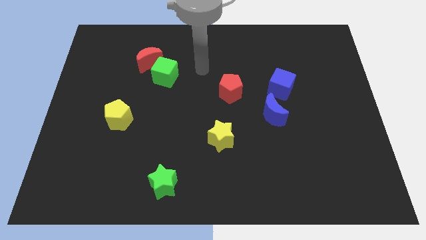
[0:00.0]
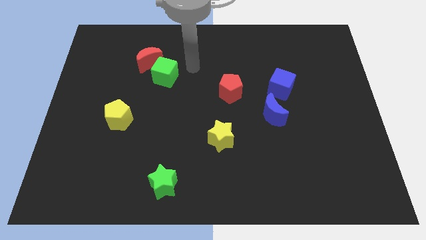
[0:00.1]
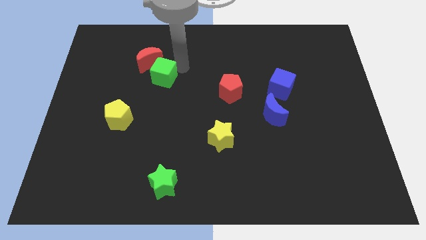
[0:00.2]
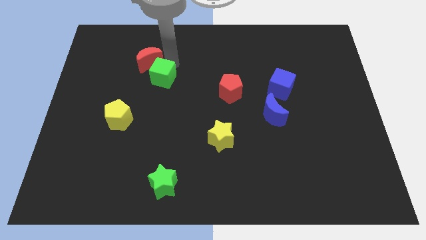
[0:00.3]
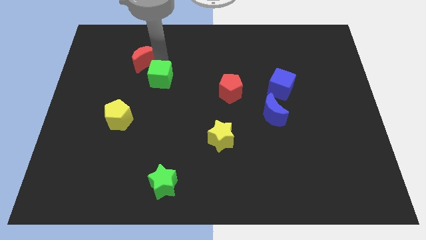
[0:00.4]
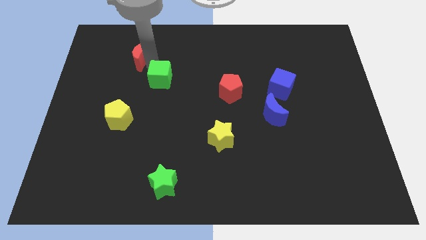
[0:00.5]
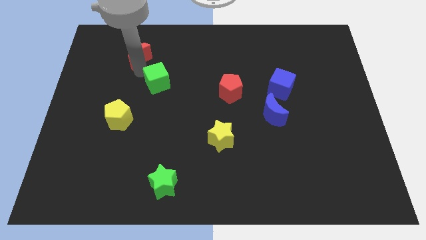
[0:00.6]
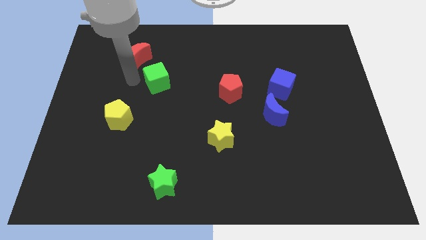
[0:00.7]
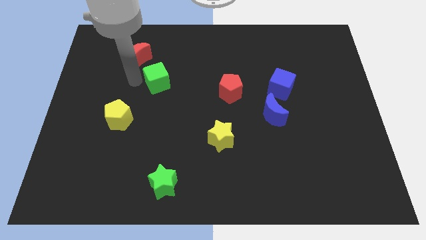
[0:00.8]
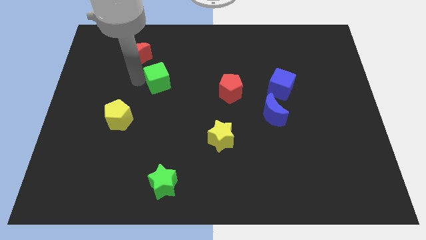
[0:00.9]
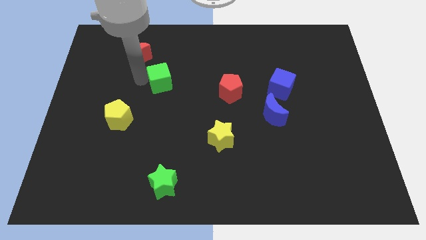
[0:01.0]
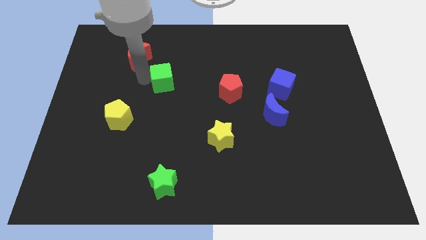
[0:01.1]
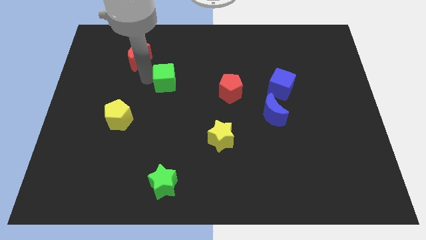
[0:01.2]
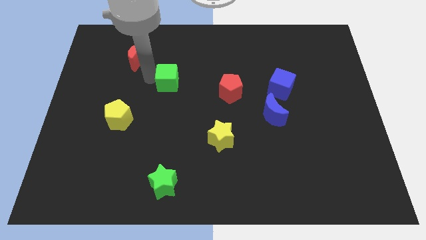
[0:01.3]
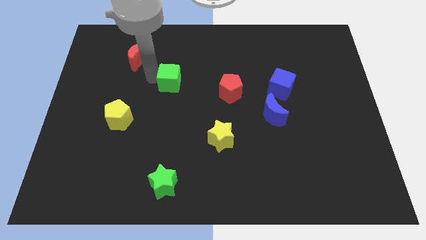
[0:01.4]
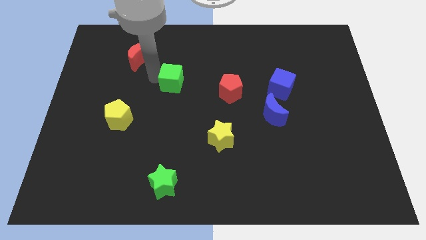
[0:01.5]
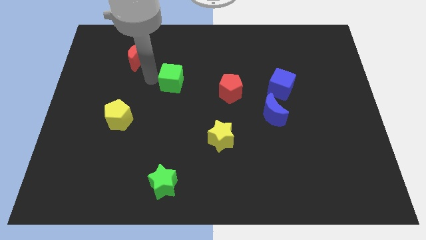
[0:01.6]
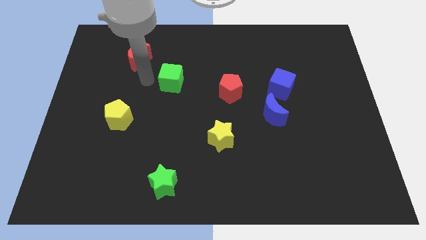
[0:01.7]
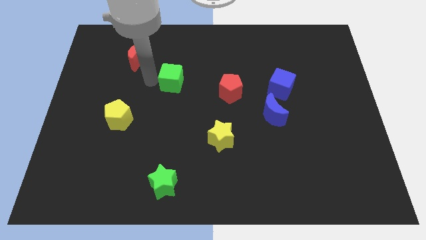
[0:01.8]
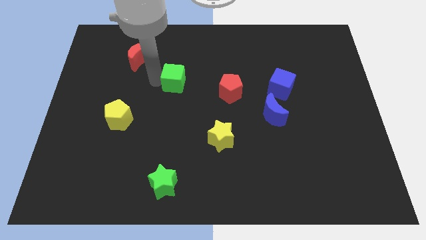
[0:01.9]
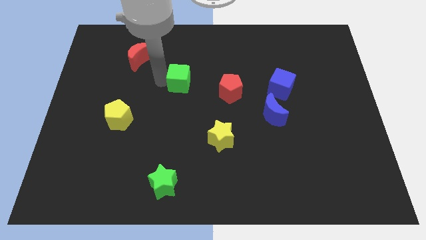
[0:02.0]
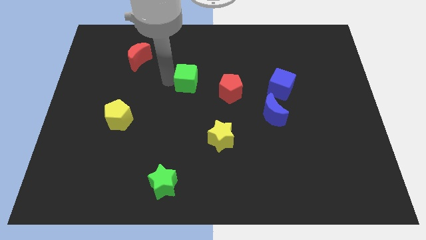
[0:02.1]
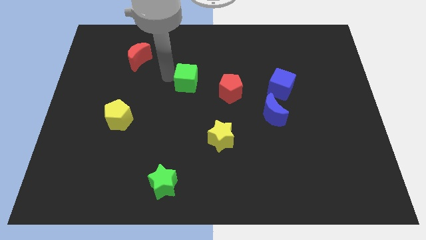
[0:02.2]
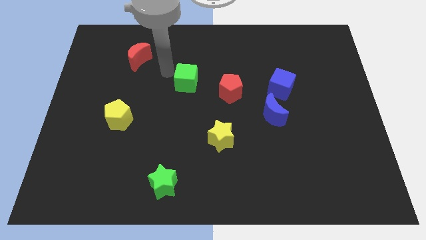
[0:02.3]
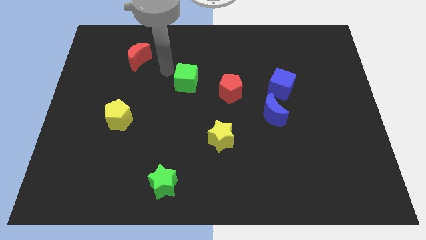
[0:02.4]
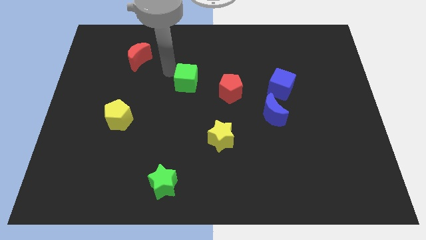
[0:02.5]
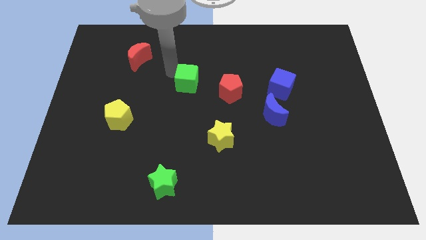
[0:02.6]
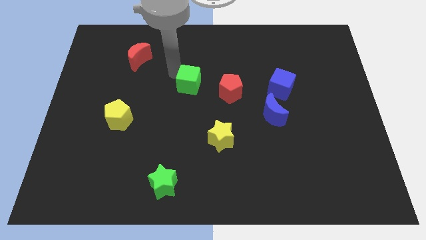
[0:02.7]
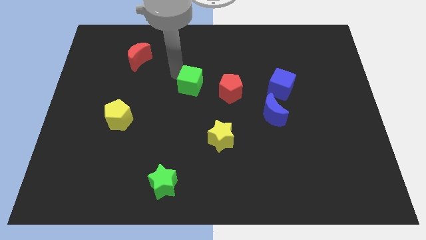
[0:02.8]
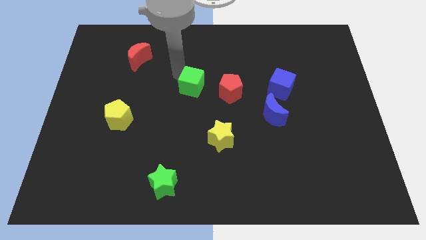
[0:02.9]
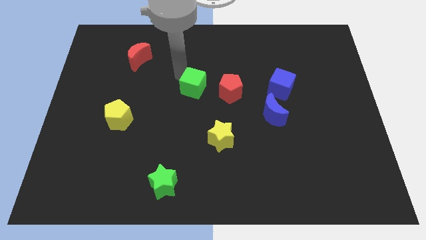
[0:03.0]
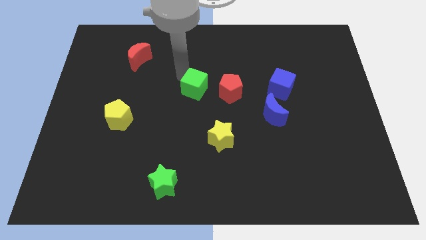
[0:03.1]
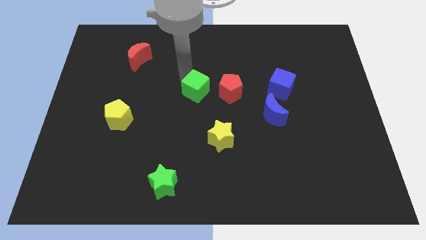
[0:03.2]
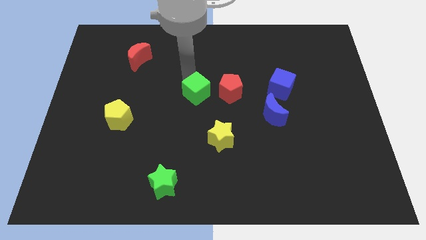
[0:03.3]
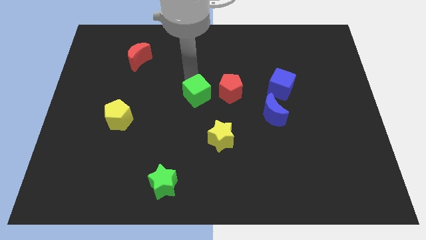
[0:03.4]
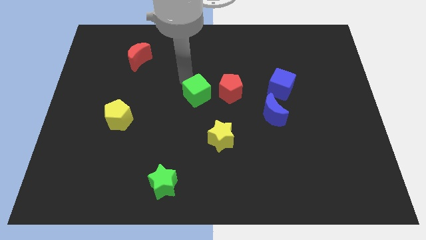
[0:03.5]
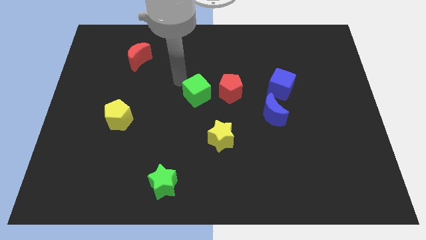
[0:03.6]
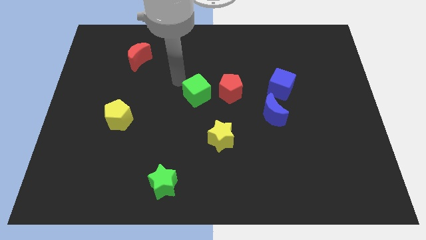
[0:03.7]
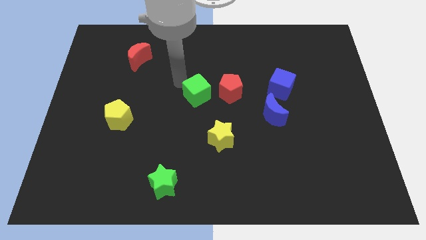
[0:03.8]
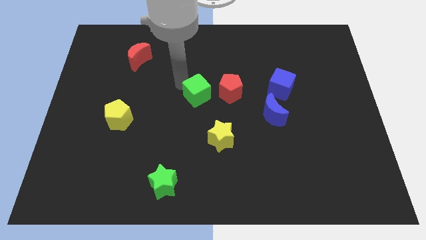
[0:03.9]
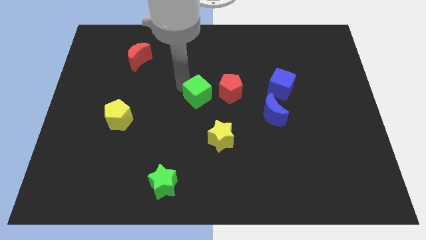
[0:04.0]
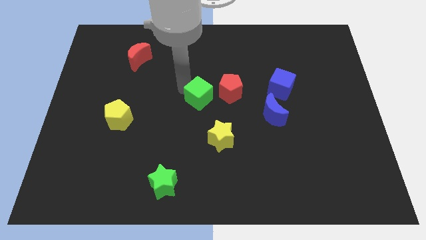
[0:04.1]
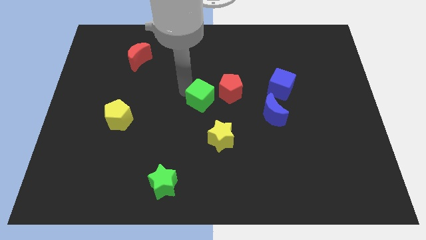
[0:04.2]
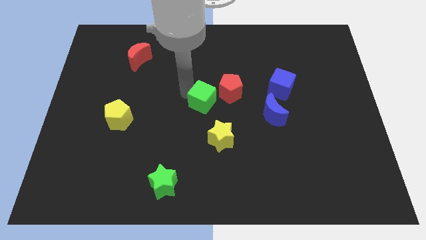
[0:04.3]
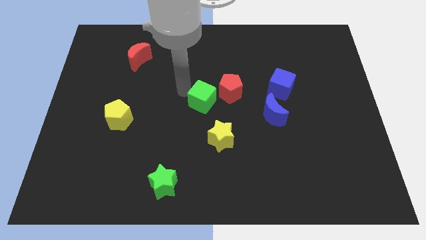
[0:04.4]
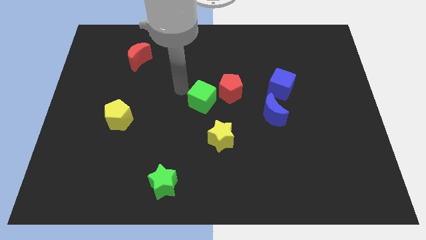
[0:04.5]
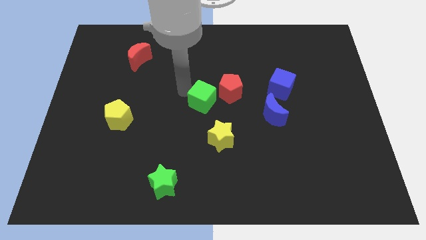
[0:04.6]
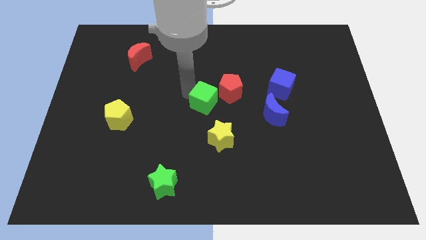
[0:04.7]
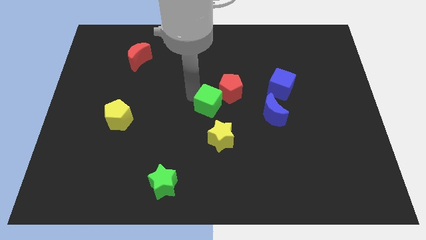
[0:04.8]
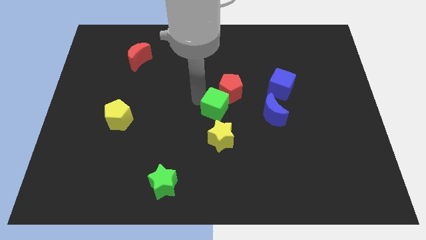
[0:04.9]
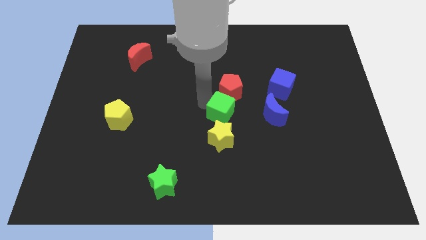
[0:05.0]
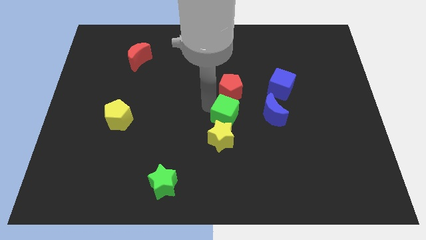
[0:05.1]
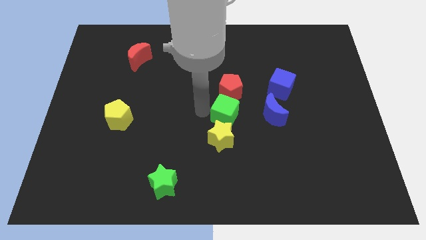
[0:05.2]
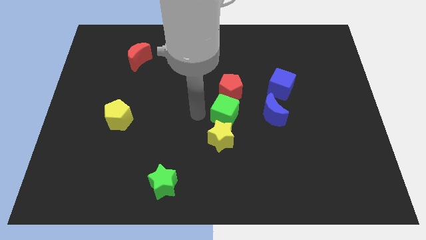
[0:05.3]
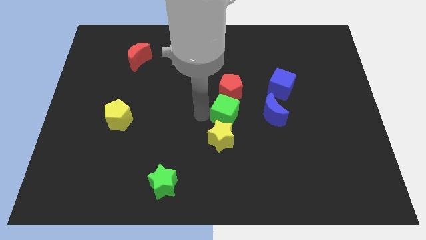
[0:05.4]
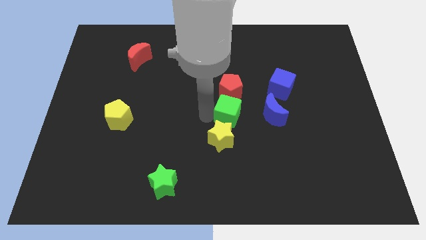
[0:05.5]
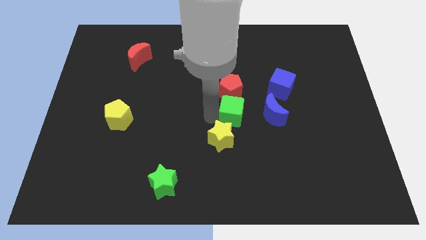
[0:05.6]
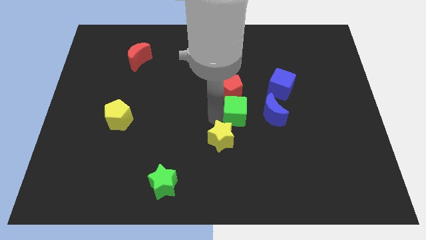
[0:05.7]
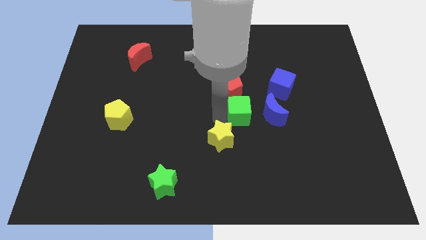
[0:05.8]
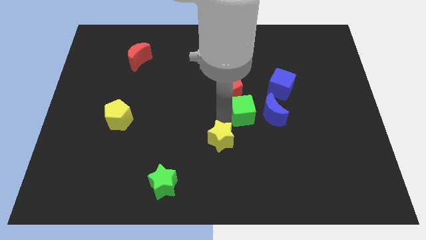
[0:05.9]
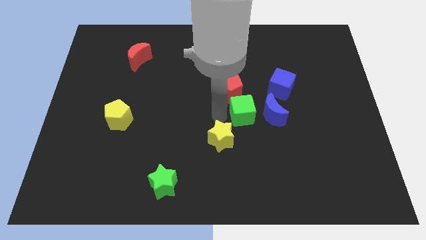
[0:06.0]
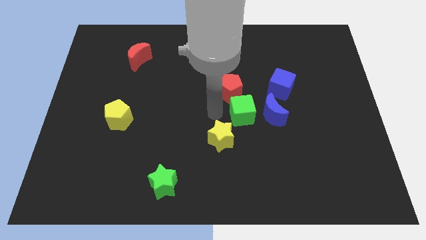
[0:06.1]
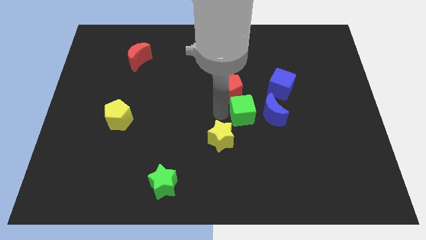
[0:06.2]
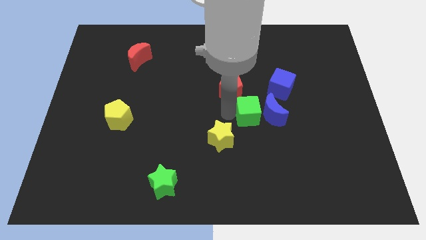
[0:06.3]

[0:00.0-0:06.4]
move the green cube close to the blue moon
